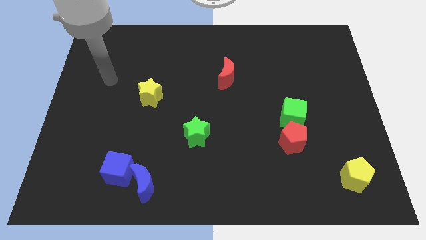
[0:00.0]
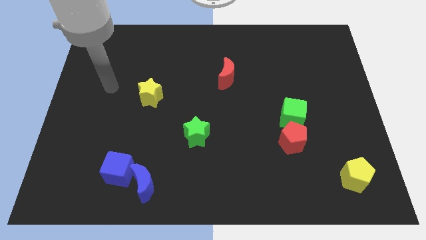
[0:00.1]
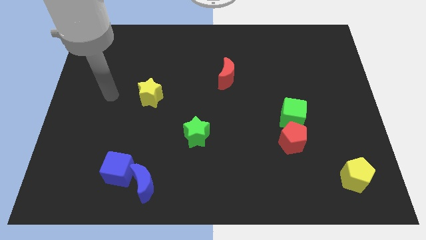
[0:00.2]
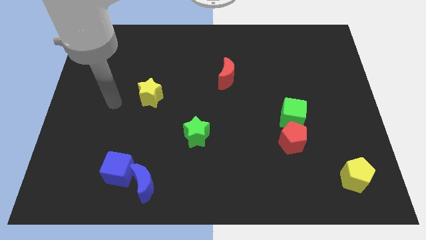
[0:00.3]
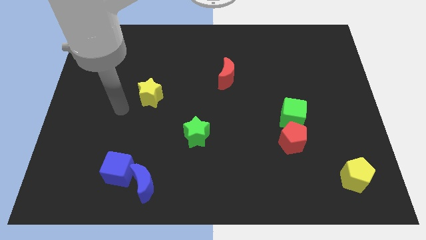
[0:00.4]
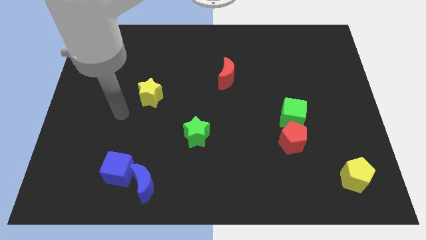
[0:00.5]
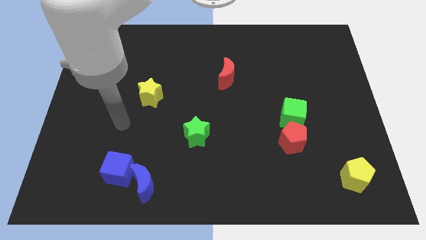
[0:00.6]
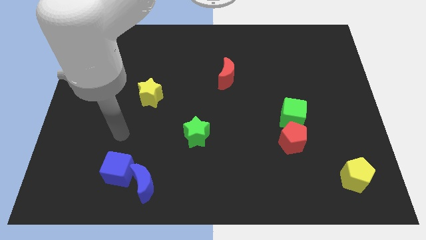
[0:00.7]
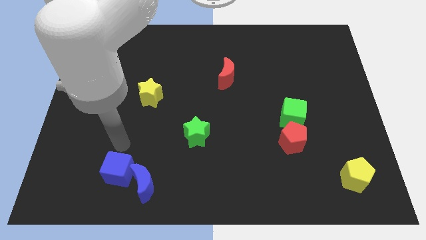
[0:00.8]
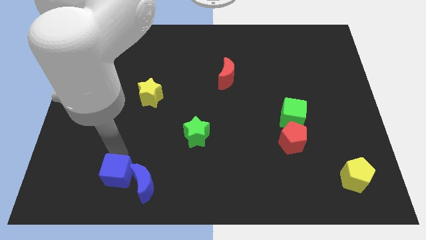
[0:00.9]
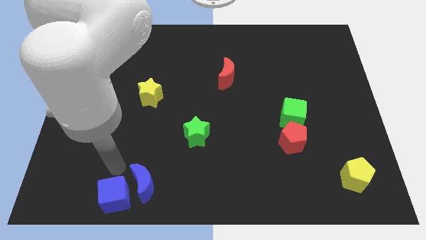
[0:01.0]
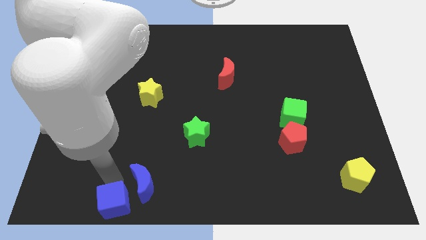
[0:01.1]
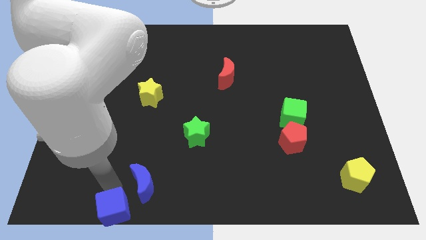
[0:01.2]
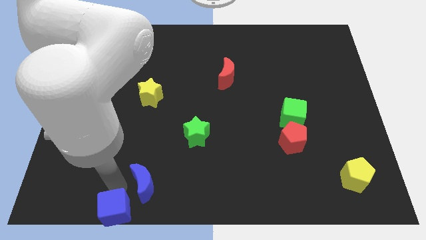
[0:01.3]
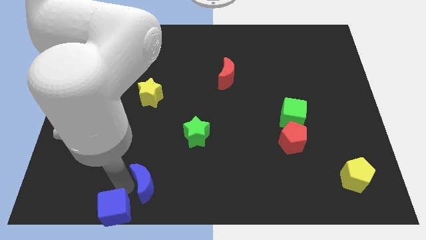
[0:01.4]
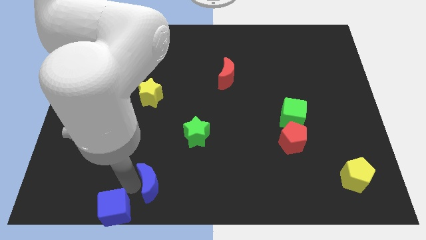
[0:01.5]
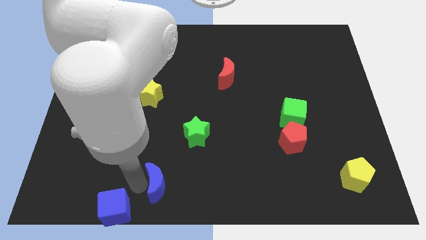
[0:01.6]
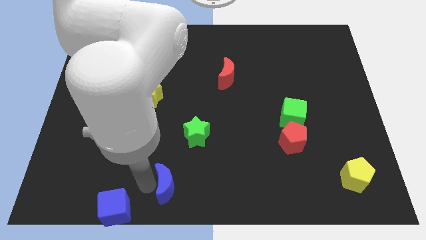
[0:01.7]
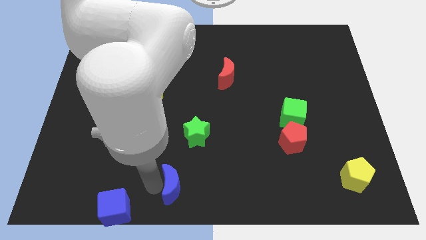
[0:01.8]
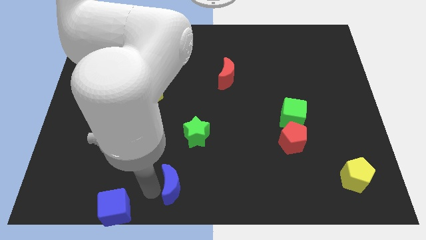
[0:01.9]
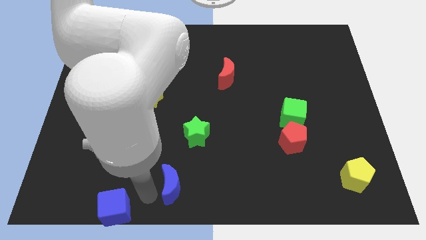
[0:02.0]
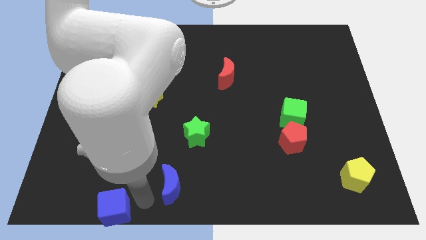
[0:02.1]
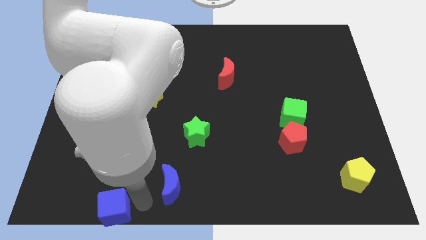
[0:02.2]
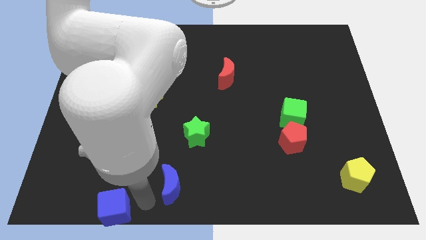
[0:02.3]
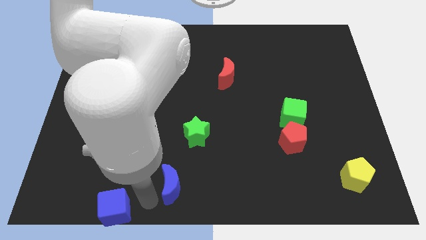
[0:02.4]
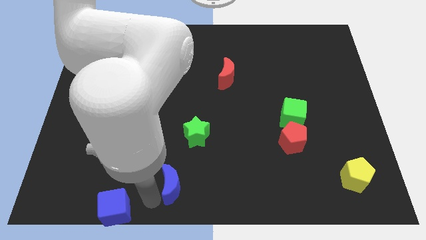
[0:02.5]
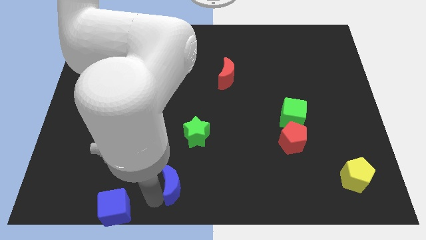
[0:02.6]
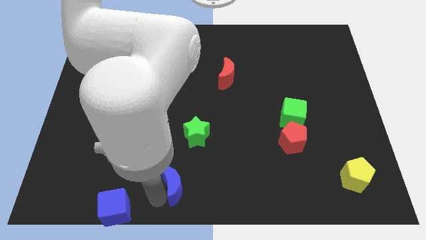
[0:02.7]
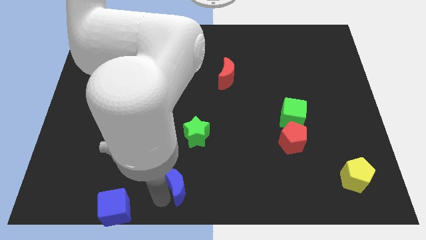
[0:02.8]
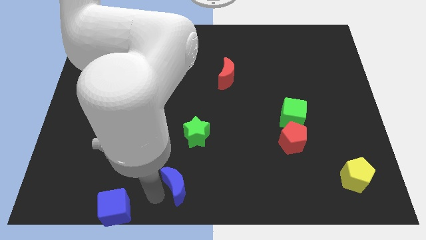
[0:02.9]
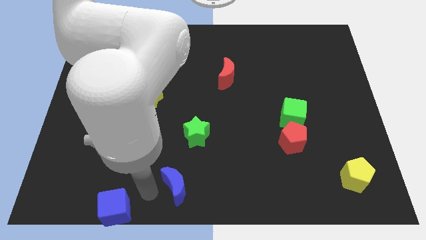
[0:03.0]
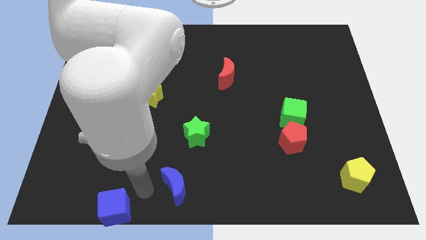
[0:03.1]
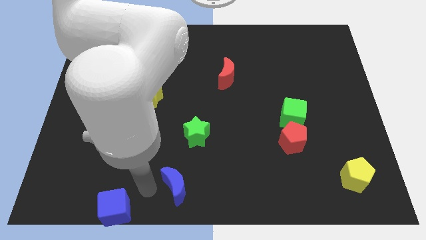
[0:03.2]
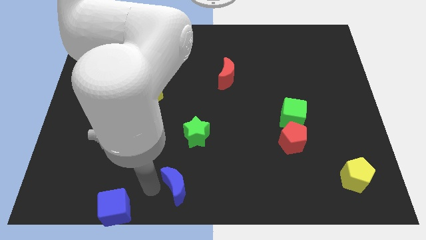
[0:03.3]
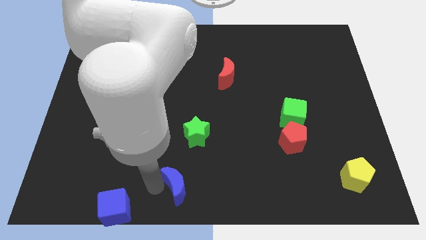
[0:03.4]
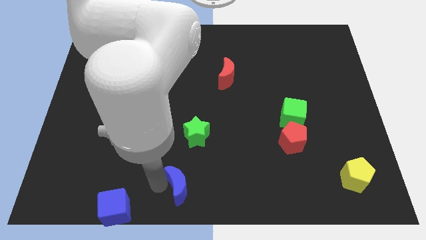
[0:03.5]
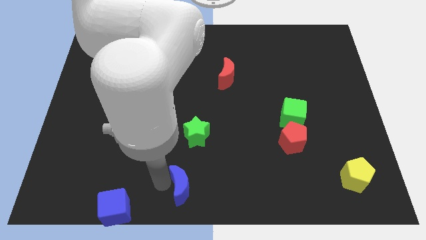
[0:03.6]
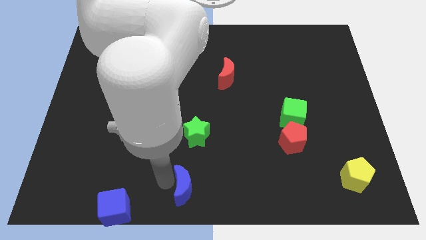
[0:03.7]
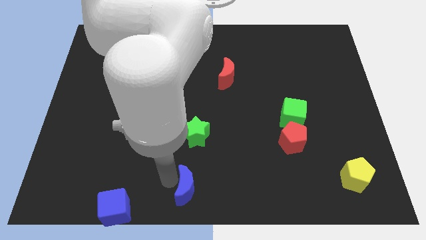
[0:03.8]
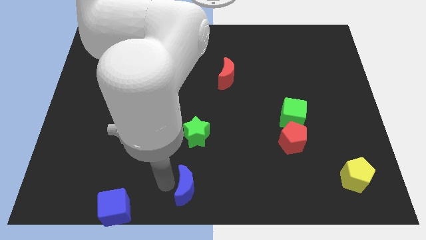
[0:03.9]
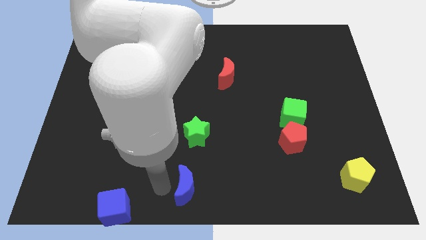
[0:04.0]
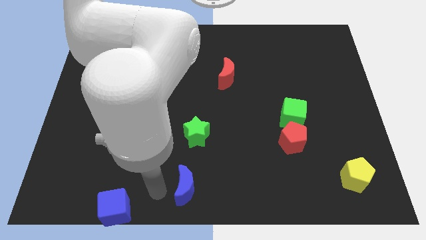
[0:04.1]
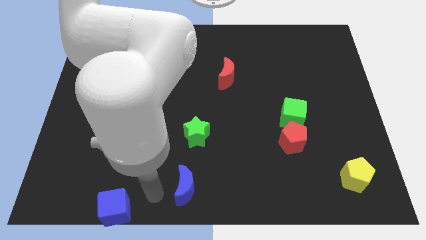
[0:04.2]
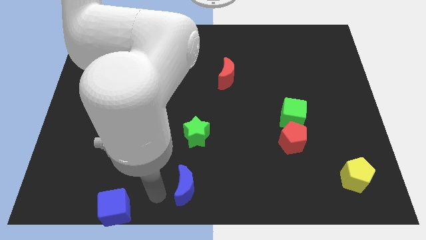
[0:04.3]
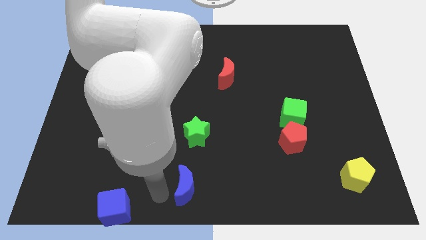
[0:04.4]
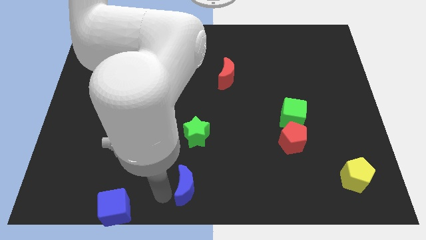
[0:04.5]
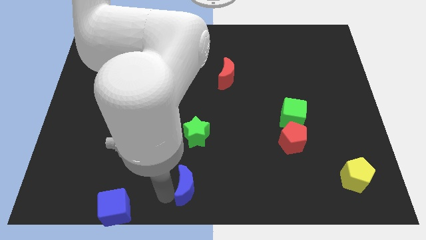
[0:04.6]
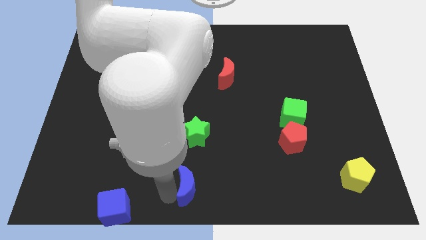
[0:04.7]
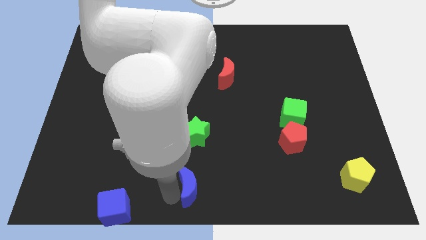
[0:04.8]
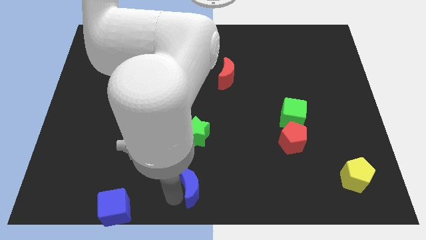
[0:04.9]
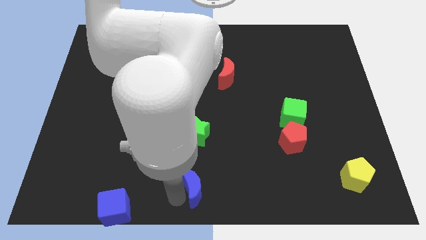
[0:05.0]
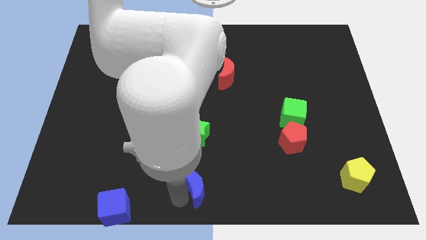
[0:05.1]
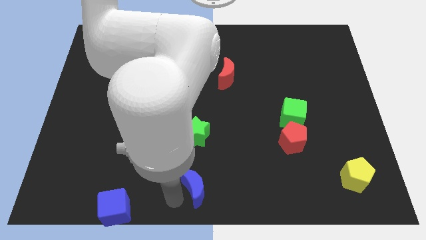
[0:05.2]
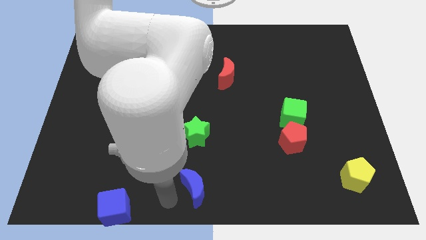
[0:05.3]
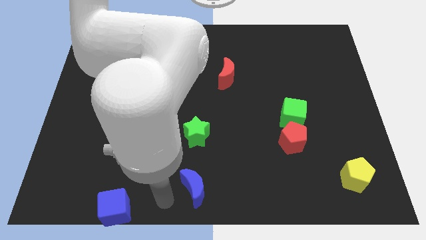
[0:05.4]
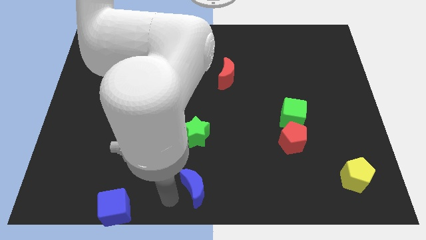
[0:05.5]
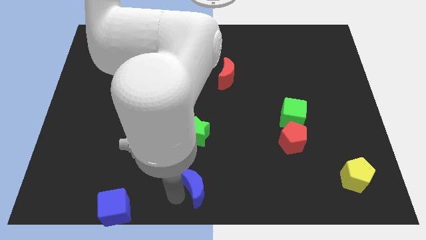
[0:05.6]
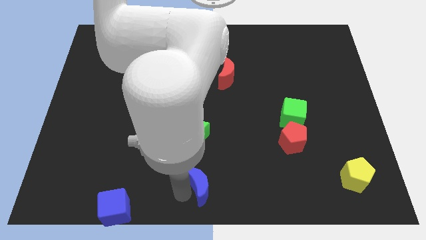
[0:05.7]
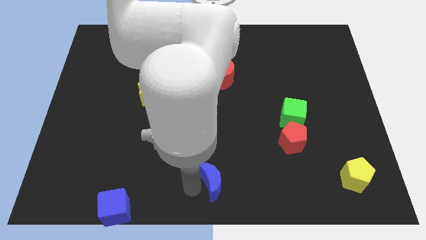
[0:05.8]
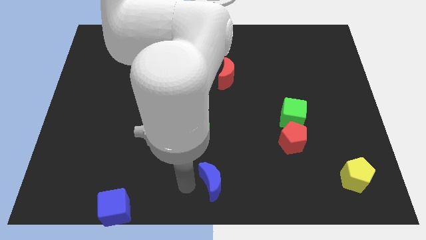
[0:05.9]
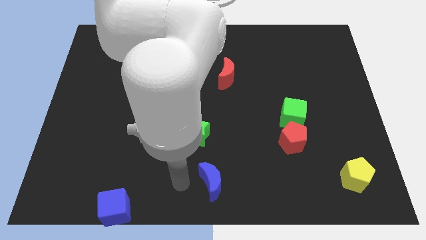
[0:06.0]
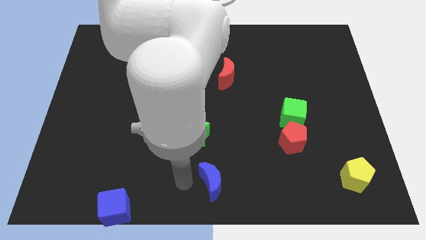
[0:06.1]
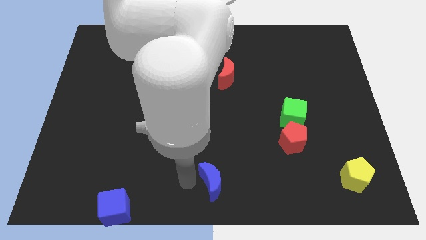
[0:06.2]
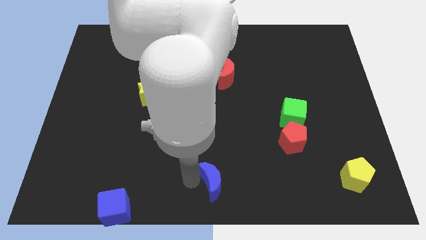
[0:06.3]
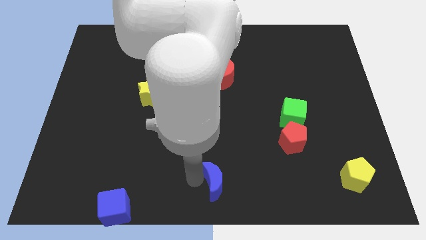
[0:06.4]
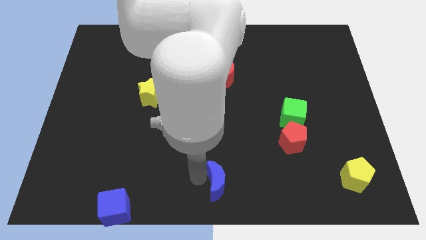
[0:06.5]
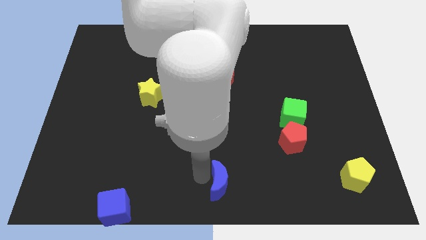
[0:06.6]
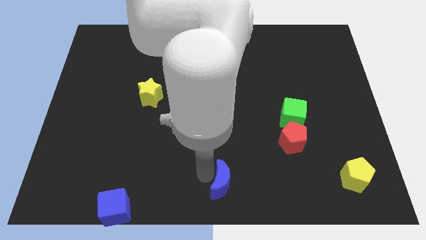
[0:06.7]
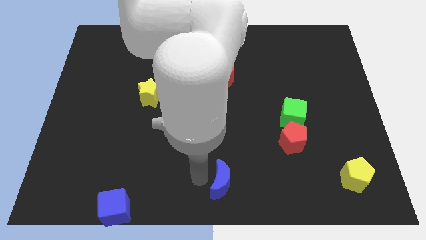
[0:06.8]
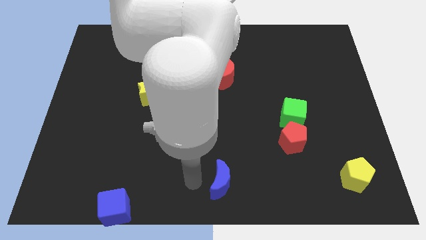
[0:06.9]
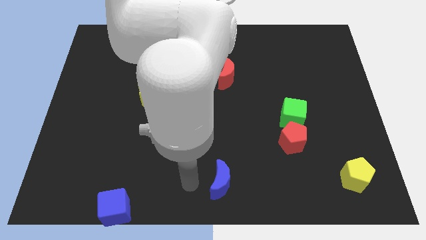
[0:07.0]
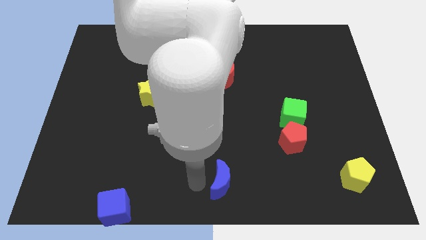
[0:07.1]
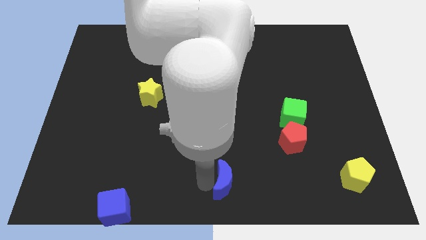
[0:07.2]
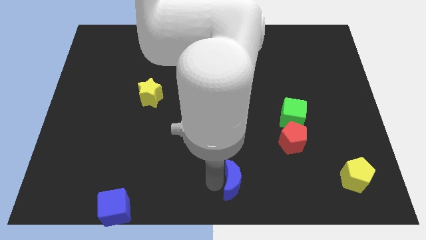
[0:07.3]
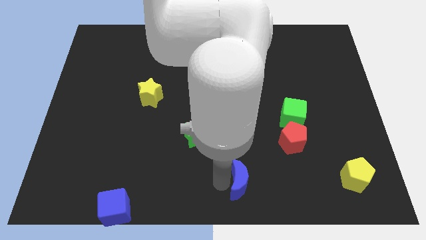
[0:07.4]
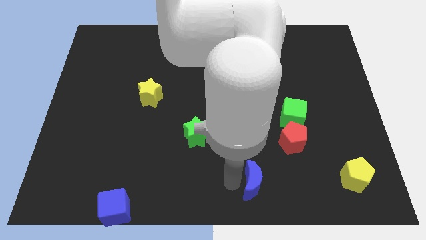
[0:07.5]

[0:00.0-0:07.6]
push the blue moon right

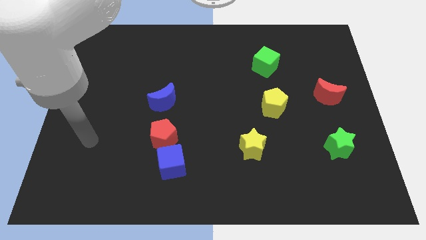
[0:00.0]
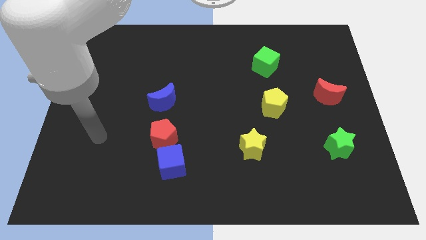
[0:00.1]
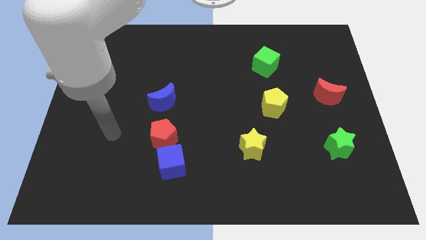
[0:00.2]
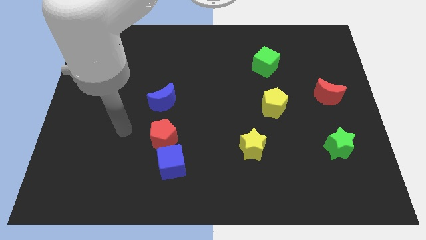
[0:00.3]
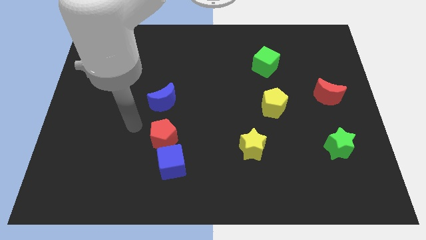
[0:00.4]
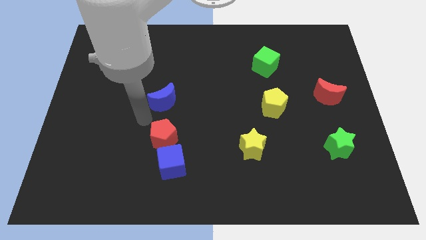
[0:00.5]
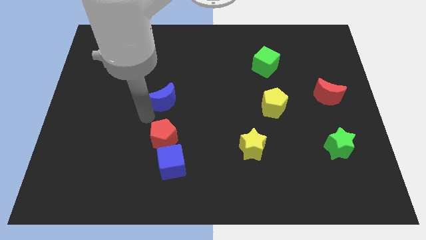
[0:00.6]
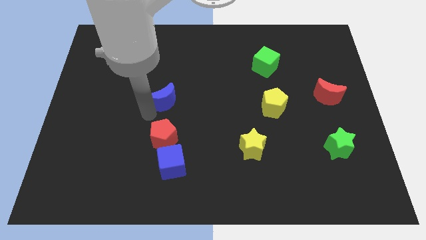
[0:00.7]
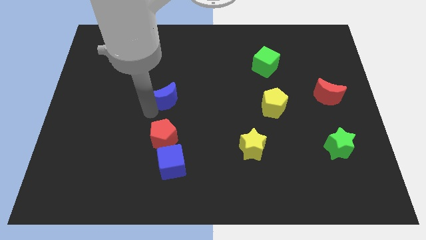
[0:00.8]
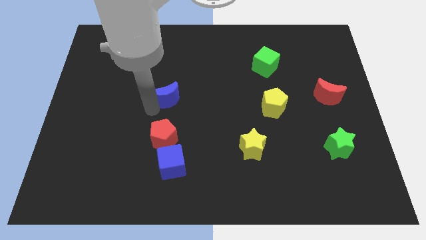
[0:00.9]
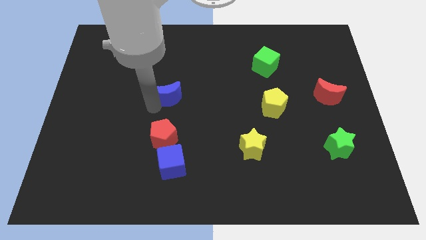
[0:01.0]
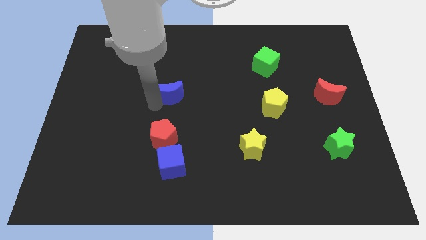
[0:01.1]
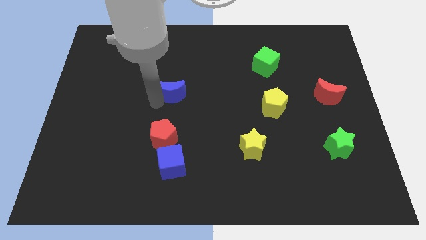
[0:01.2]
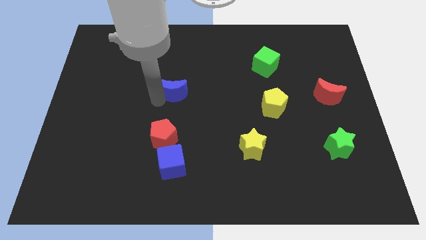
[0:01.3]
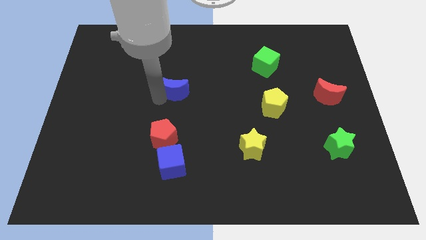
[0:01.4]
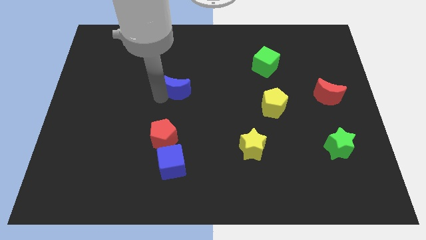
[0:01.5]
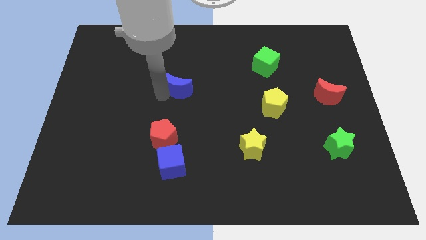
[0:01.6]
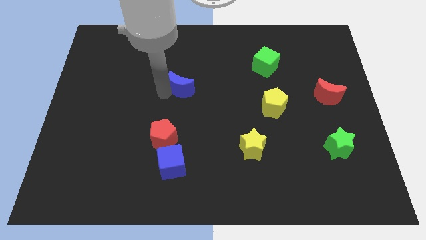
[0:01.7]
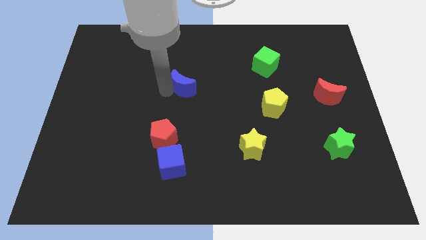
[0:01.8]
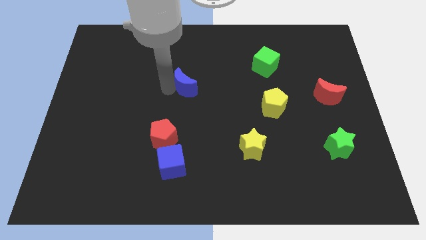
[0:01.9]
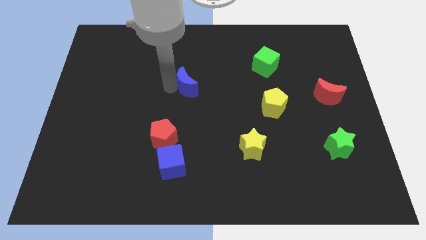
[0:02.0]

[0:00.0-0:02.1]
push the blue moon diagonally upwards and right a bit
